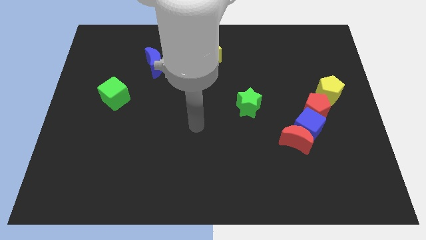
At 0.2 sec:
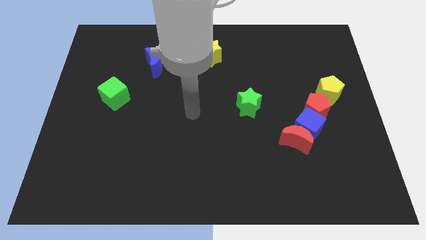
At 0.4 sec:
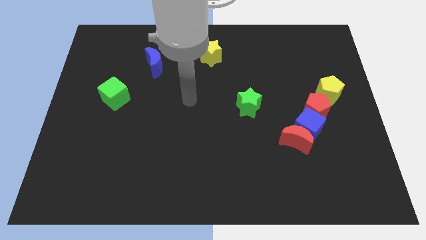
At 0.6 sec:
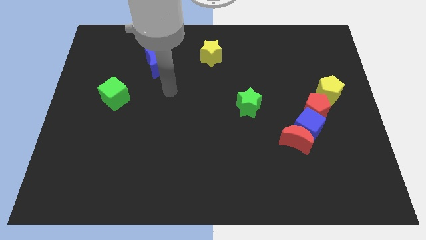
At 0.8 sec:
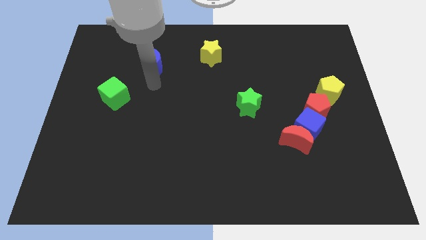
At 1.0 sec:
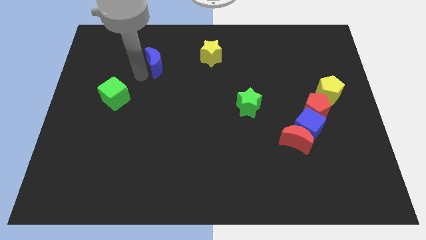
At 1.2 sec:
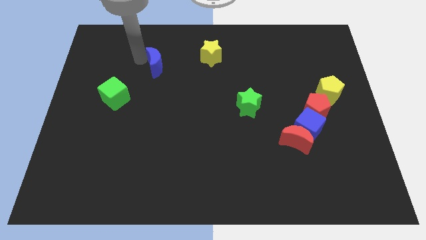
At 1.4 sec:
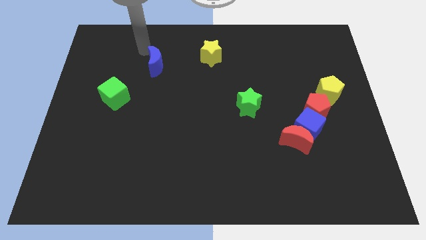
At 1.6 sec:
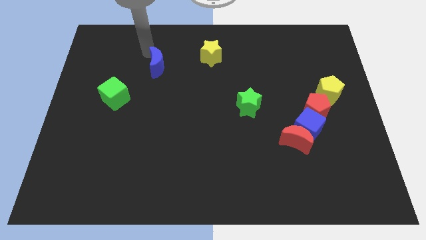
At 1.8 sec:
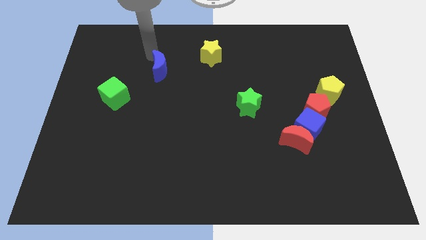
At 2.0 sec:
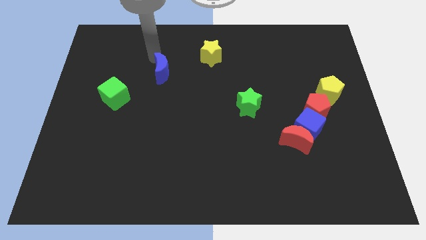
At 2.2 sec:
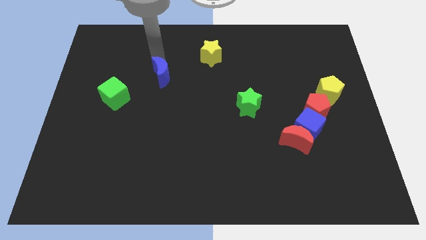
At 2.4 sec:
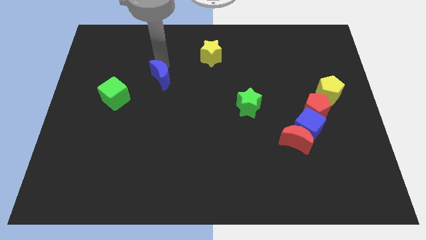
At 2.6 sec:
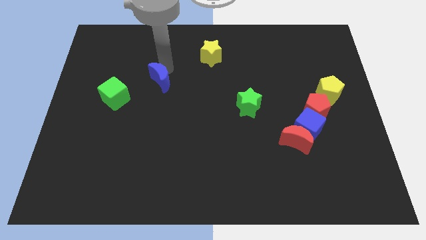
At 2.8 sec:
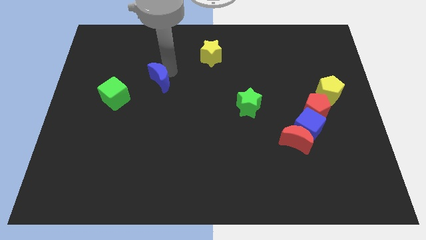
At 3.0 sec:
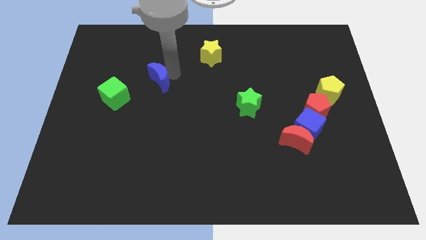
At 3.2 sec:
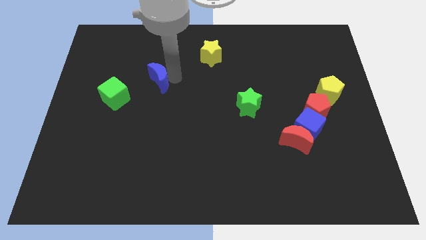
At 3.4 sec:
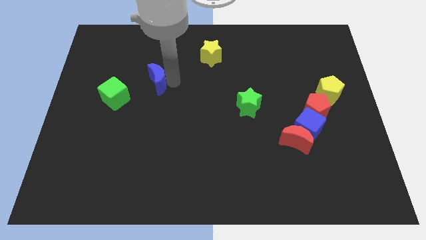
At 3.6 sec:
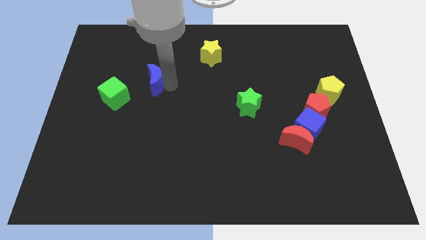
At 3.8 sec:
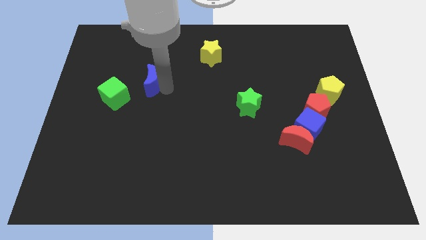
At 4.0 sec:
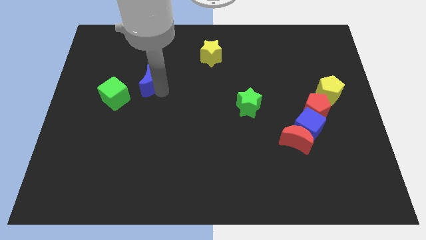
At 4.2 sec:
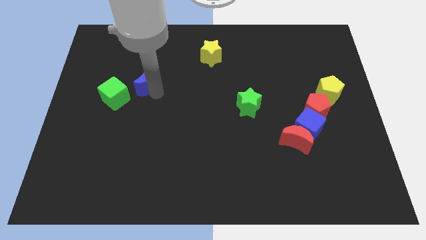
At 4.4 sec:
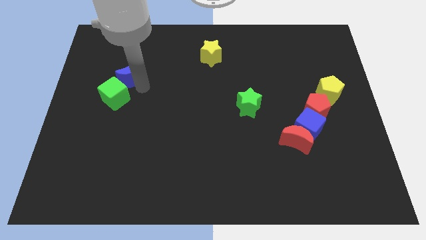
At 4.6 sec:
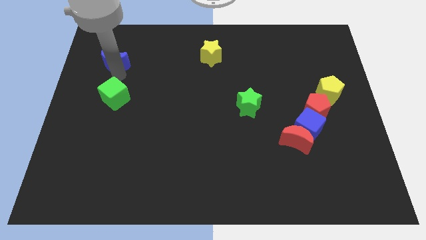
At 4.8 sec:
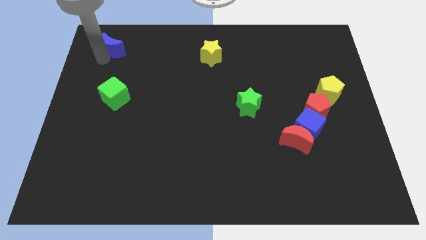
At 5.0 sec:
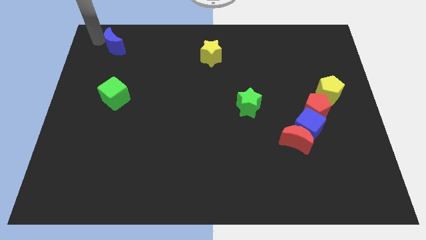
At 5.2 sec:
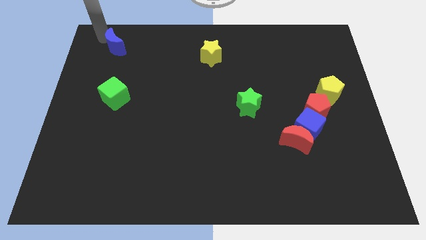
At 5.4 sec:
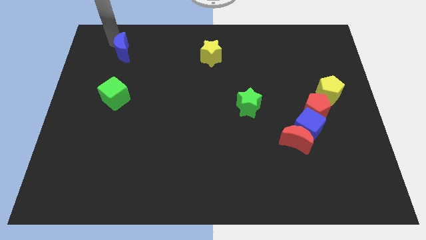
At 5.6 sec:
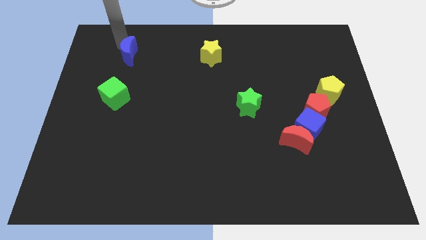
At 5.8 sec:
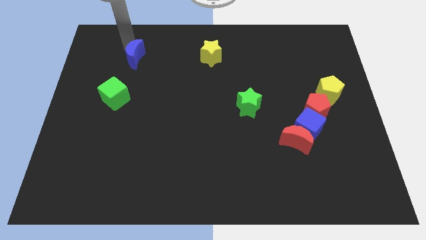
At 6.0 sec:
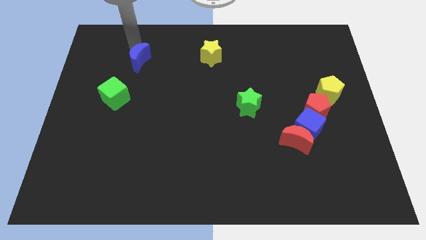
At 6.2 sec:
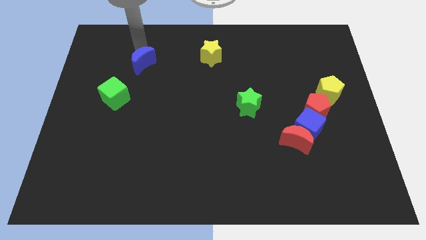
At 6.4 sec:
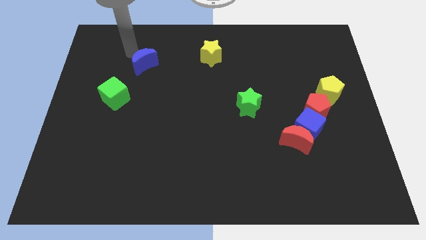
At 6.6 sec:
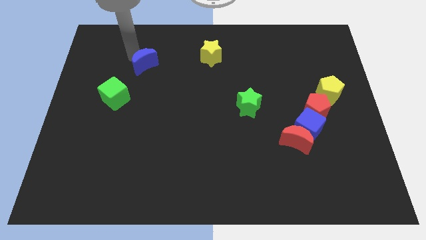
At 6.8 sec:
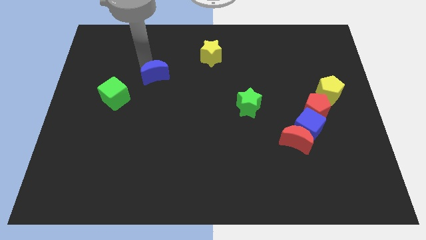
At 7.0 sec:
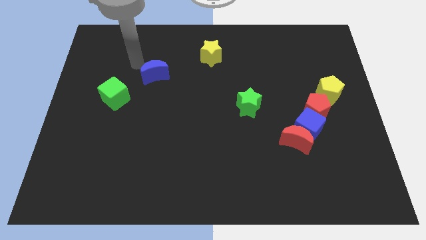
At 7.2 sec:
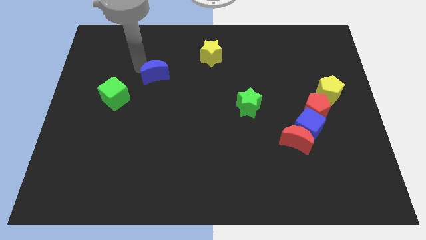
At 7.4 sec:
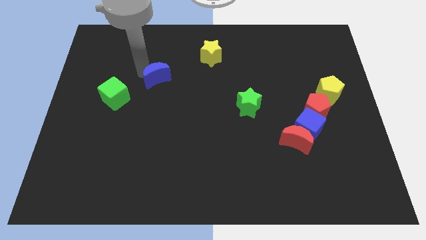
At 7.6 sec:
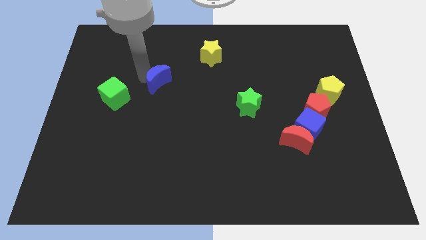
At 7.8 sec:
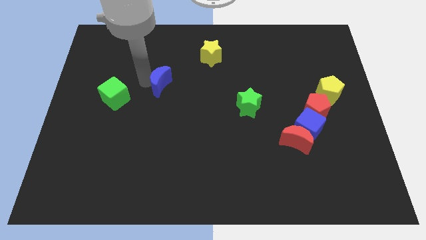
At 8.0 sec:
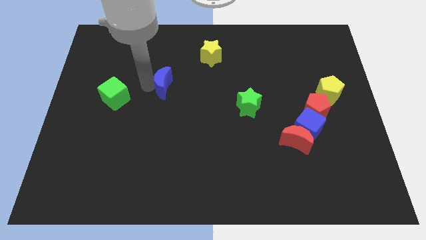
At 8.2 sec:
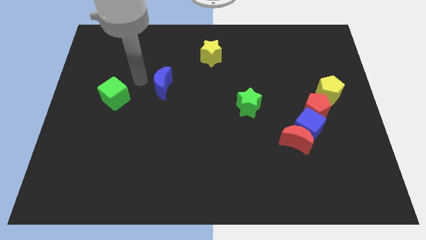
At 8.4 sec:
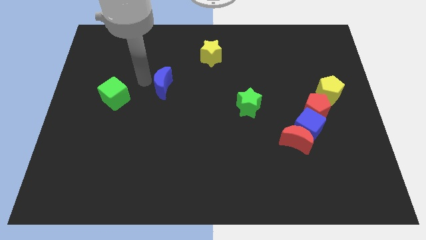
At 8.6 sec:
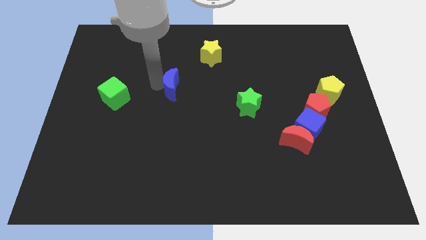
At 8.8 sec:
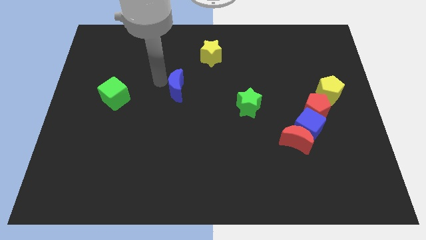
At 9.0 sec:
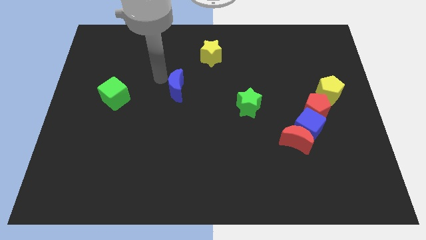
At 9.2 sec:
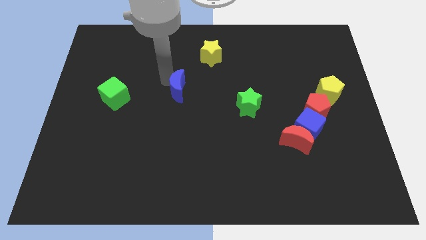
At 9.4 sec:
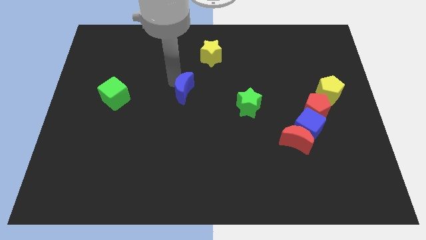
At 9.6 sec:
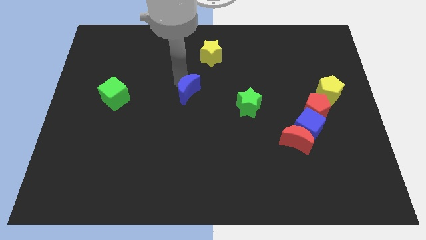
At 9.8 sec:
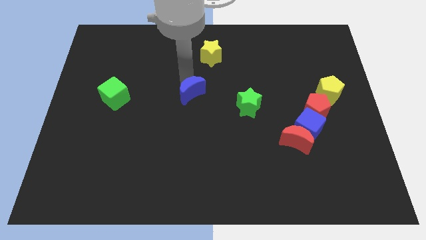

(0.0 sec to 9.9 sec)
put the blue moon left of the green star

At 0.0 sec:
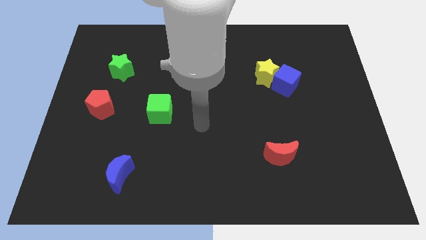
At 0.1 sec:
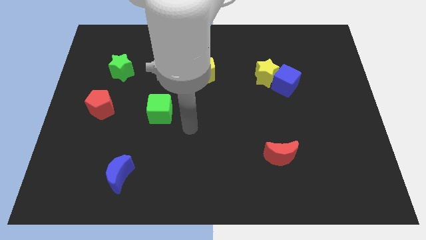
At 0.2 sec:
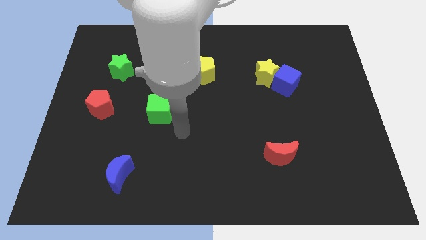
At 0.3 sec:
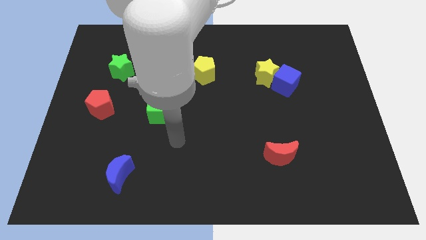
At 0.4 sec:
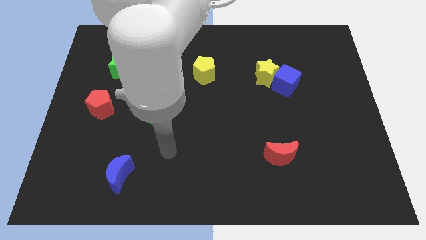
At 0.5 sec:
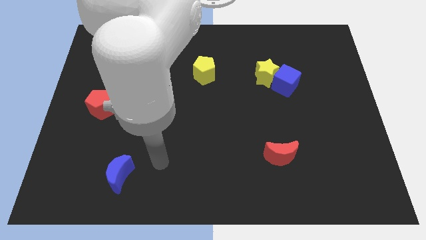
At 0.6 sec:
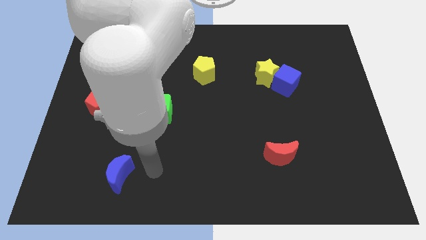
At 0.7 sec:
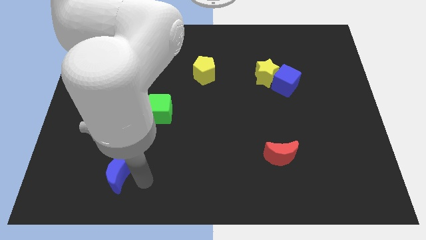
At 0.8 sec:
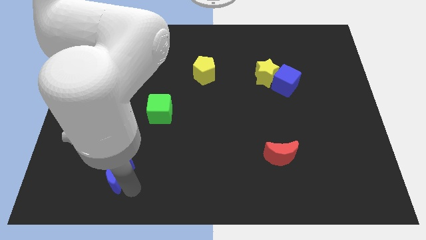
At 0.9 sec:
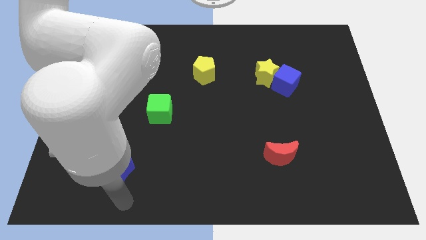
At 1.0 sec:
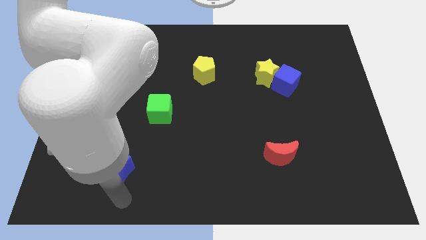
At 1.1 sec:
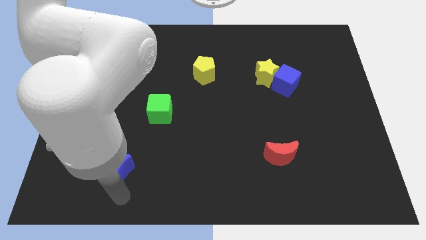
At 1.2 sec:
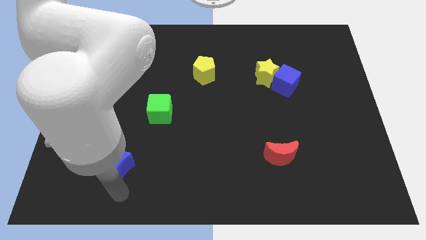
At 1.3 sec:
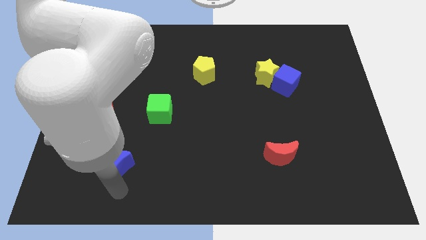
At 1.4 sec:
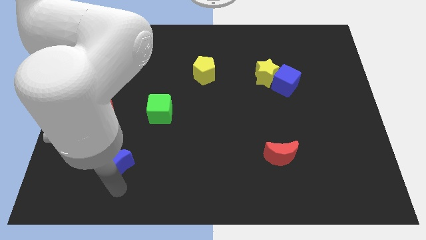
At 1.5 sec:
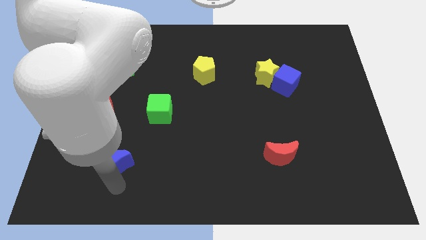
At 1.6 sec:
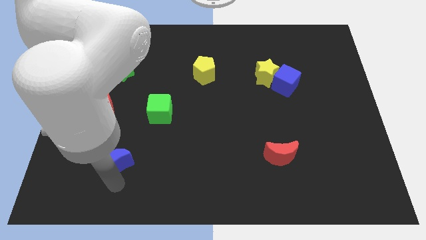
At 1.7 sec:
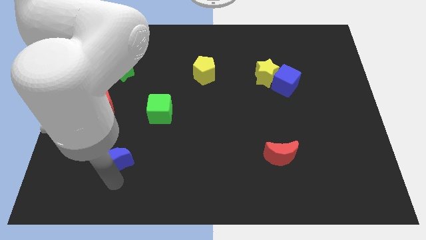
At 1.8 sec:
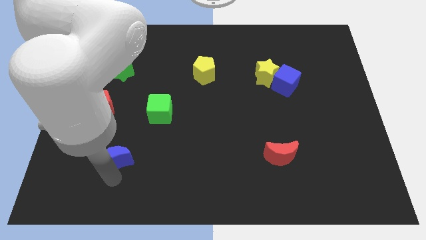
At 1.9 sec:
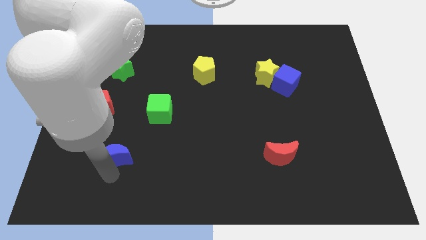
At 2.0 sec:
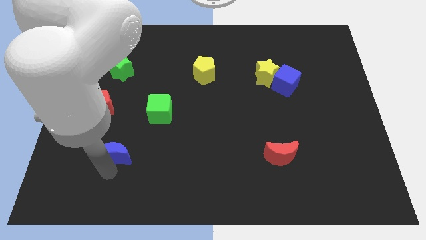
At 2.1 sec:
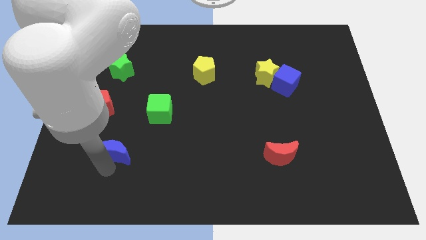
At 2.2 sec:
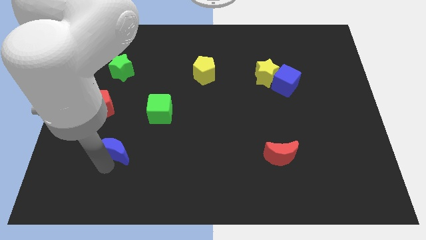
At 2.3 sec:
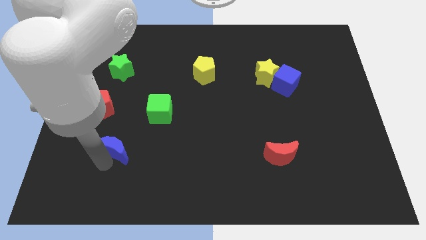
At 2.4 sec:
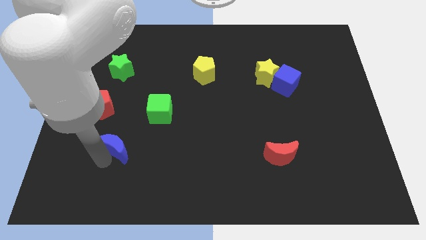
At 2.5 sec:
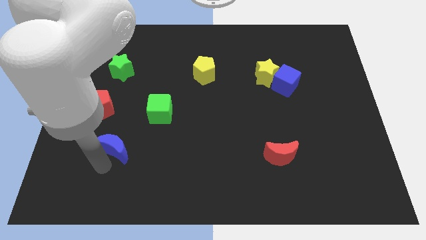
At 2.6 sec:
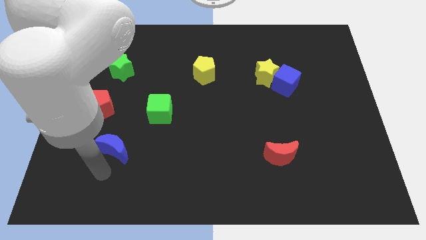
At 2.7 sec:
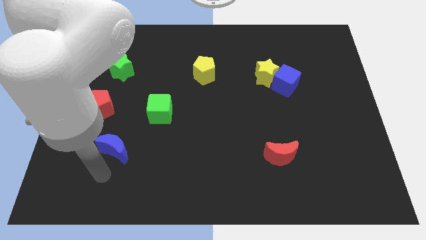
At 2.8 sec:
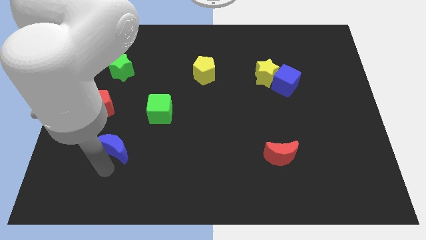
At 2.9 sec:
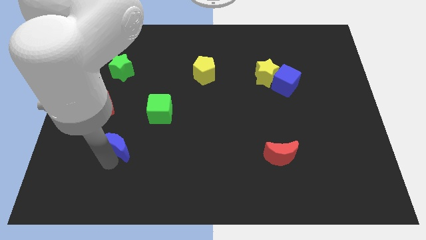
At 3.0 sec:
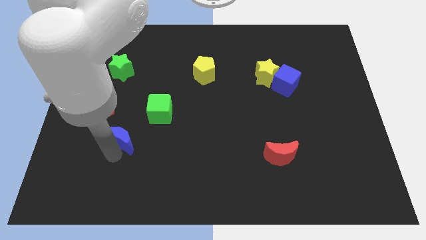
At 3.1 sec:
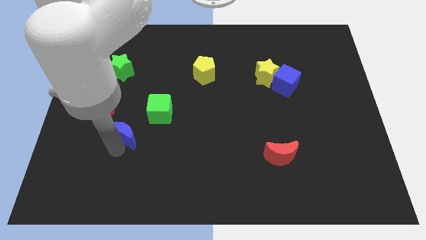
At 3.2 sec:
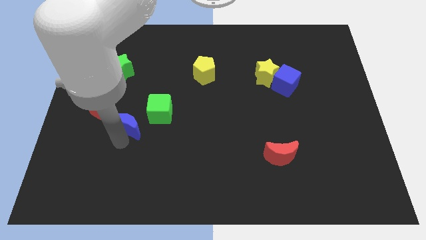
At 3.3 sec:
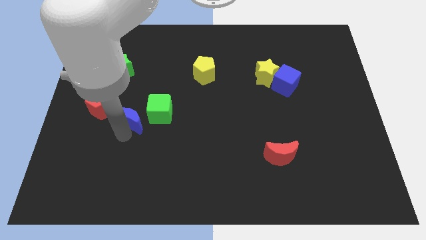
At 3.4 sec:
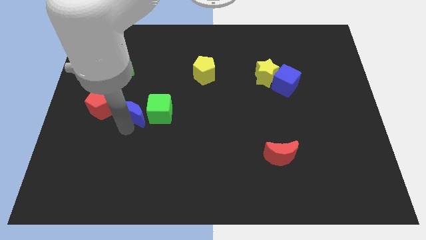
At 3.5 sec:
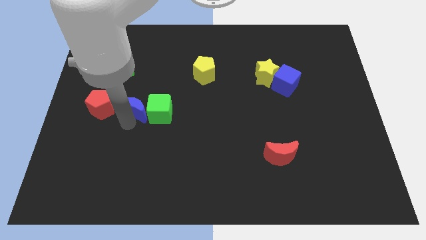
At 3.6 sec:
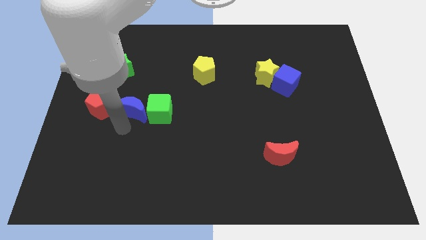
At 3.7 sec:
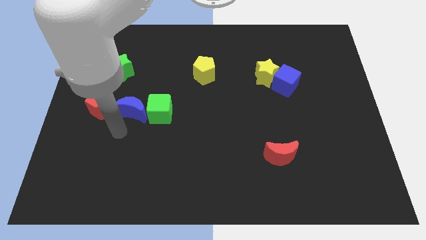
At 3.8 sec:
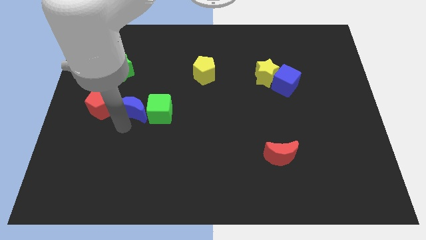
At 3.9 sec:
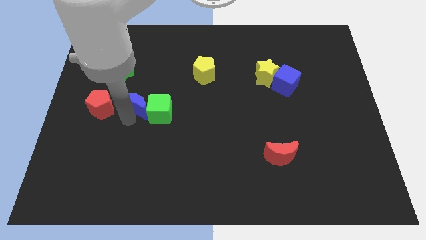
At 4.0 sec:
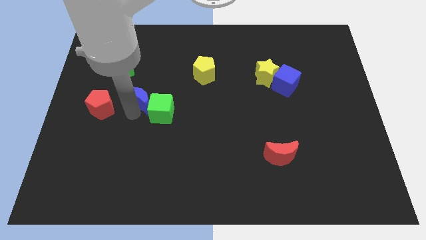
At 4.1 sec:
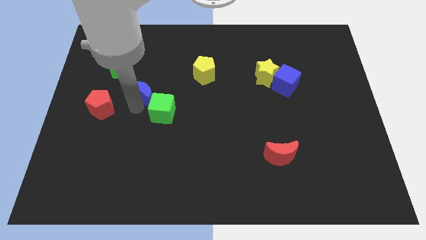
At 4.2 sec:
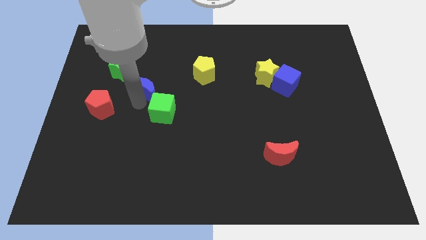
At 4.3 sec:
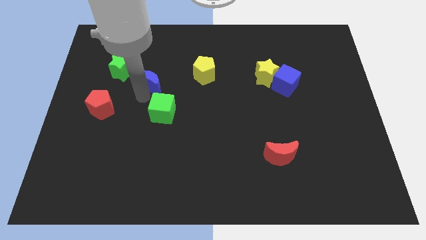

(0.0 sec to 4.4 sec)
slide the blue moon to the right of the green star
